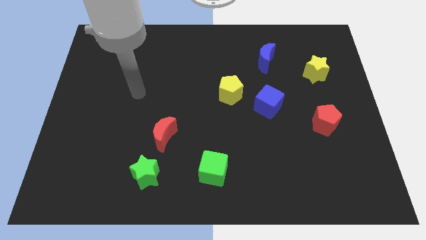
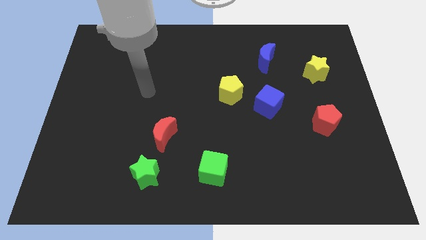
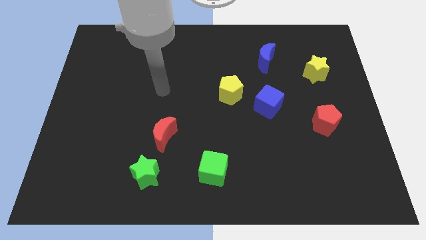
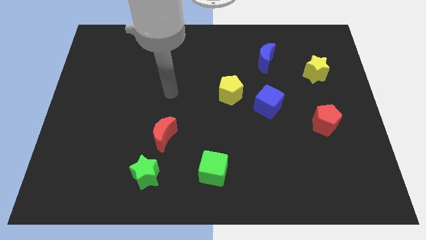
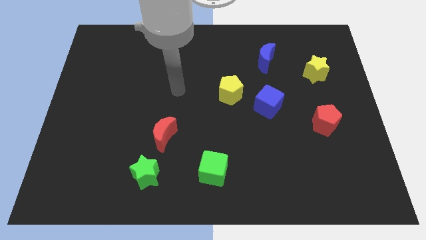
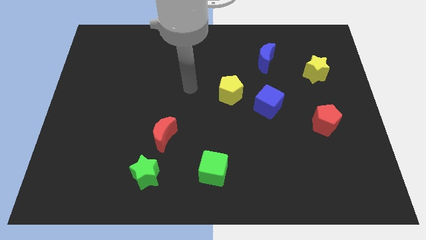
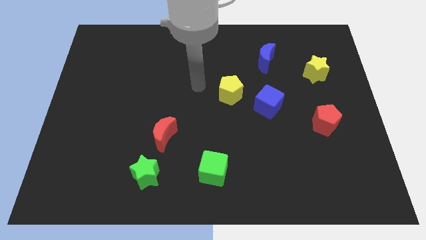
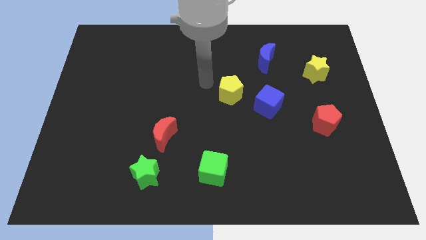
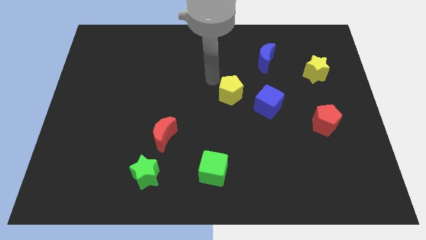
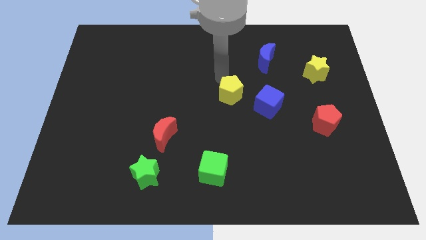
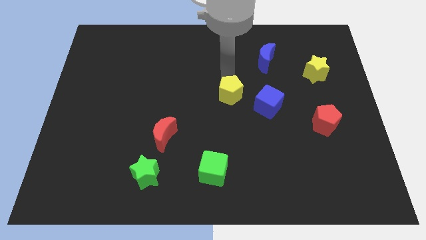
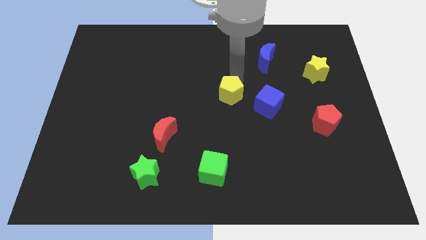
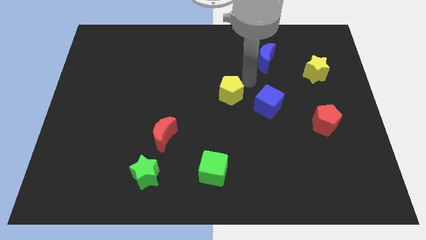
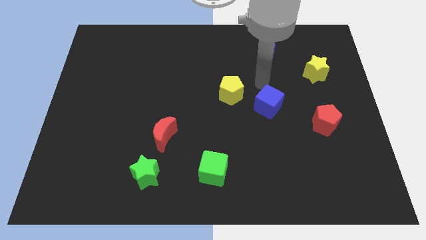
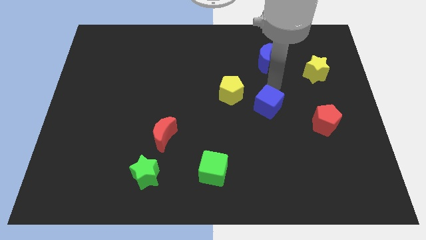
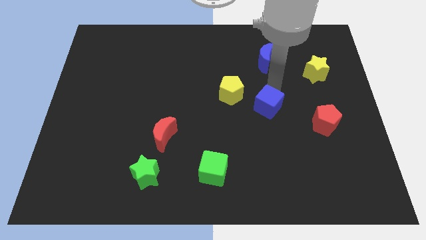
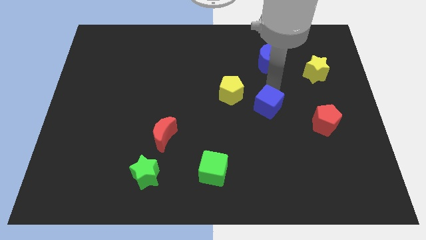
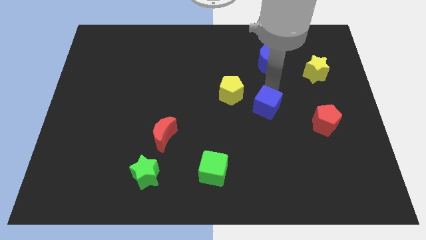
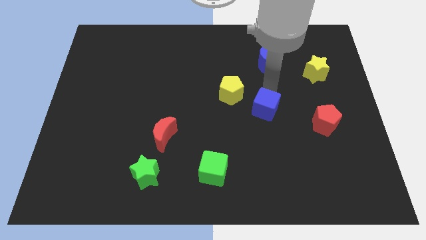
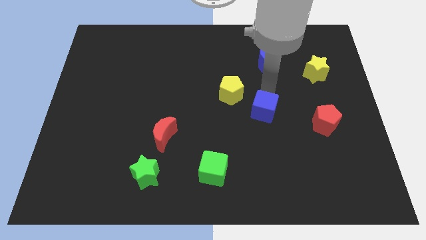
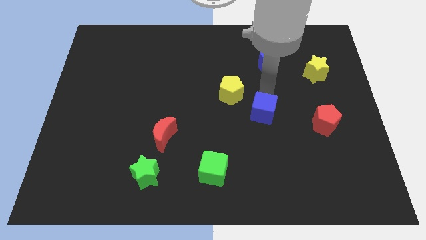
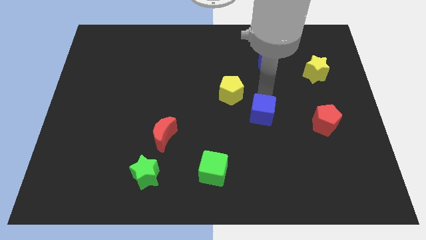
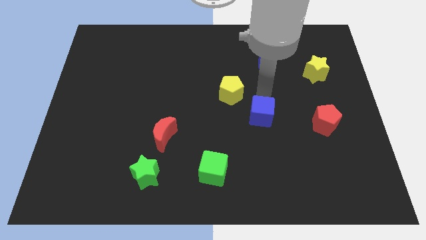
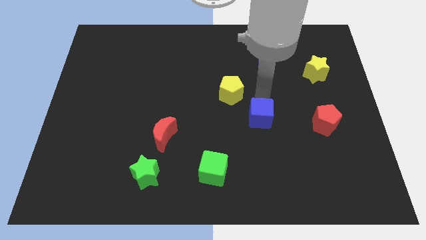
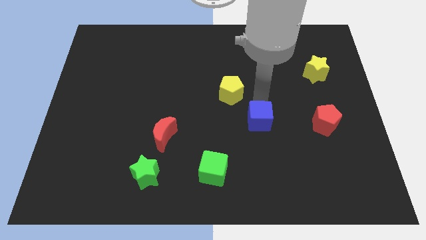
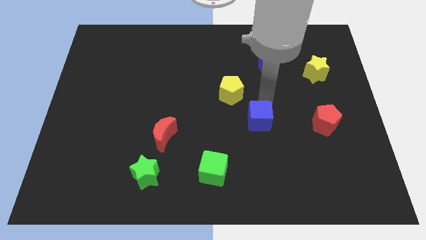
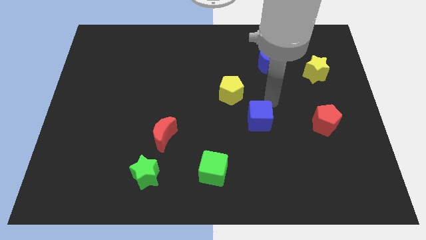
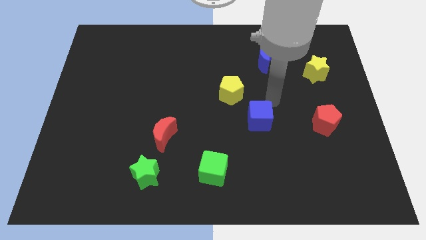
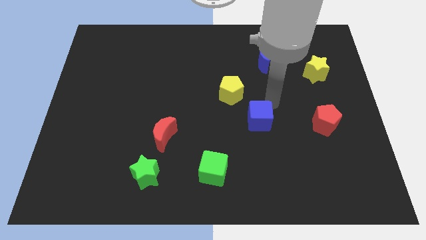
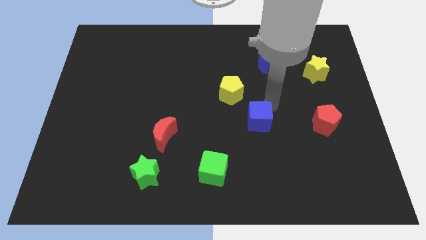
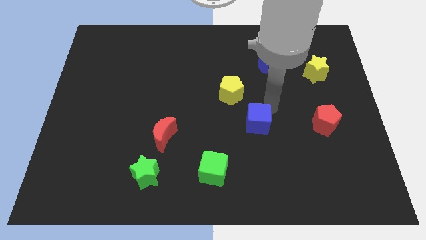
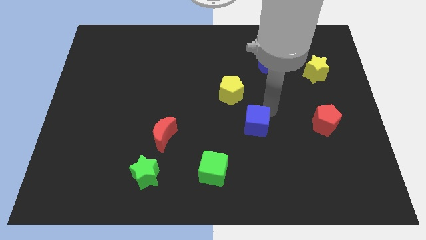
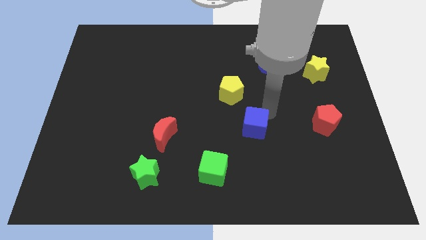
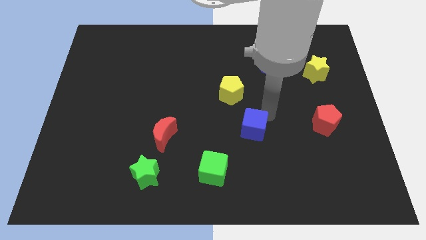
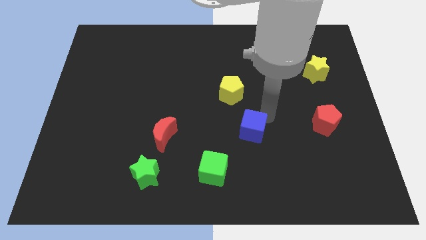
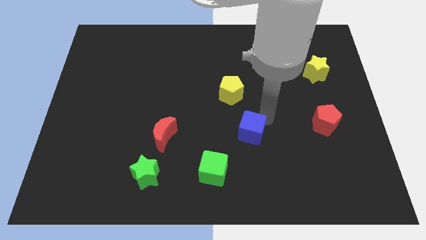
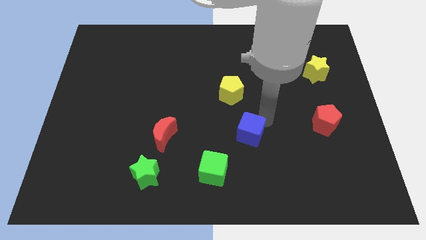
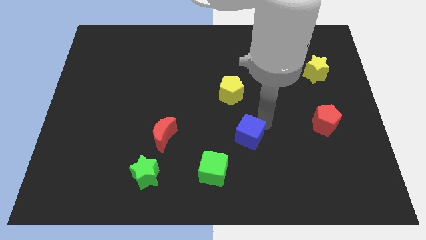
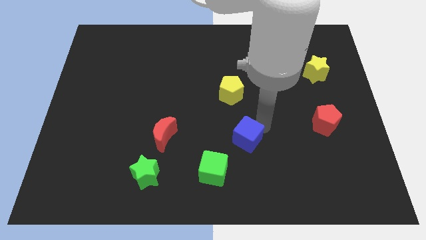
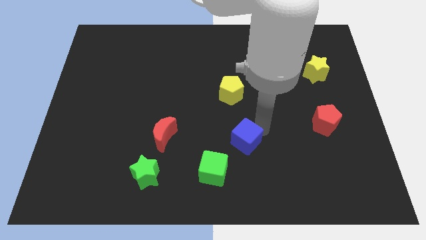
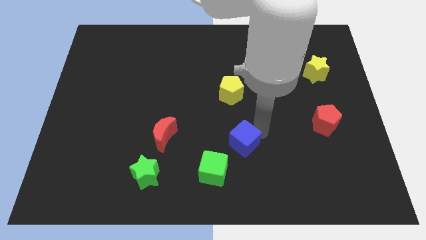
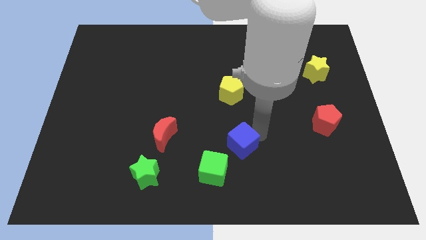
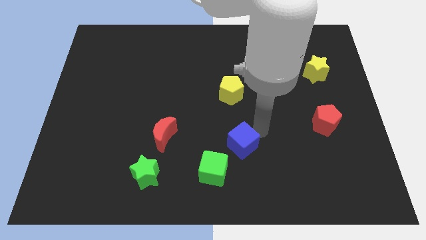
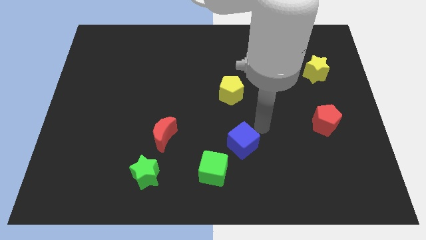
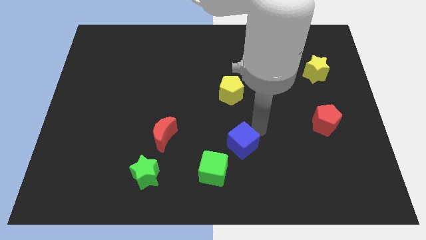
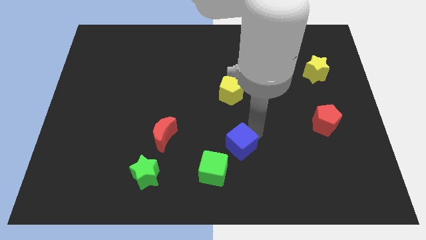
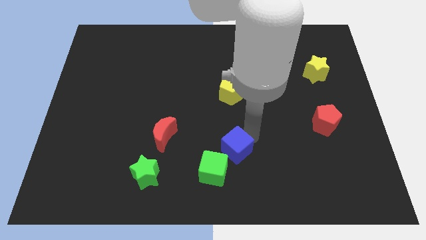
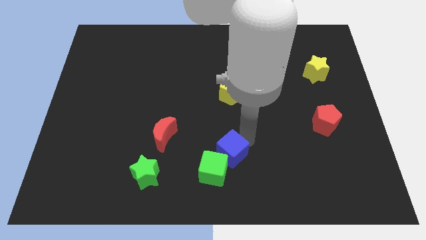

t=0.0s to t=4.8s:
push the blue cube to the green cube

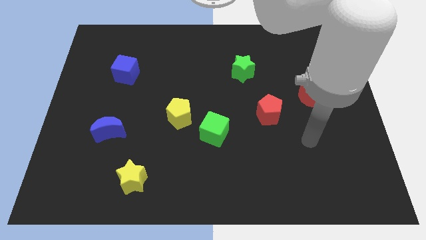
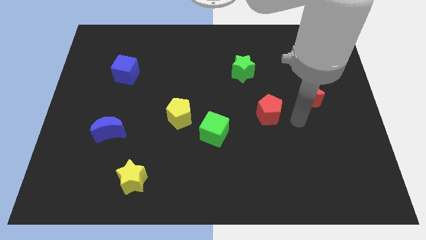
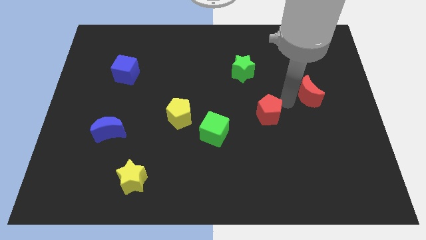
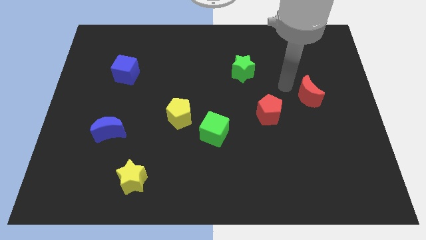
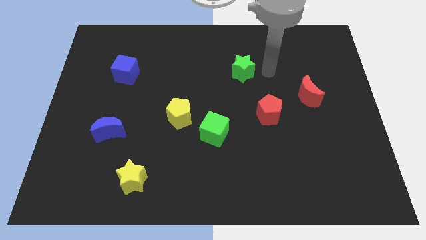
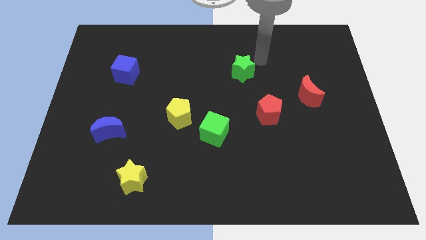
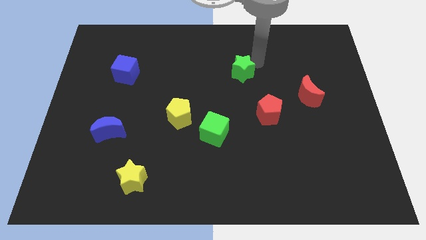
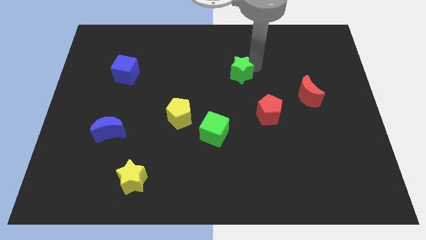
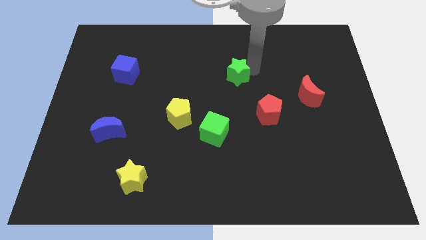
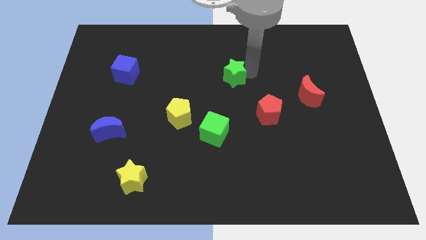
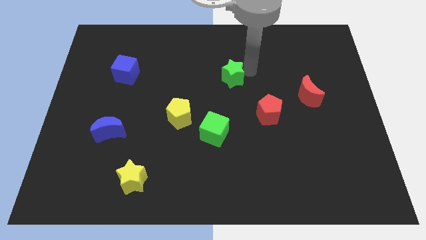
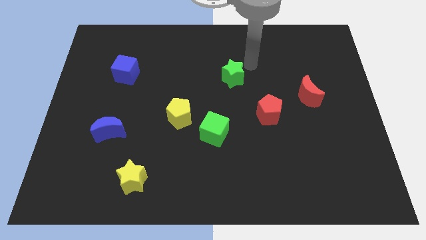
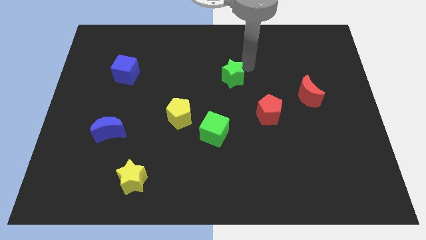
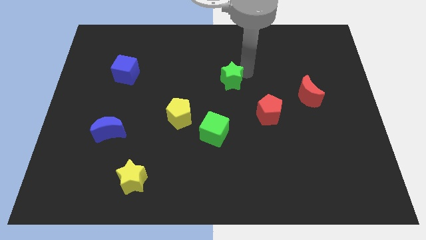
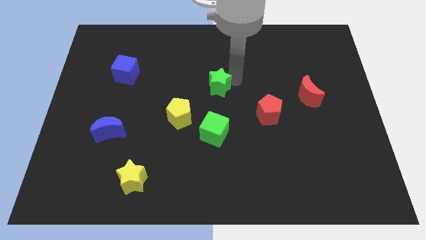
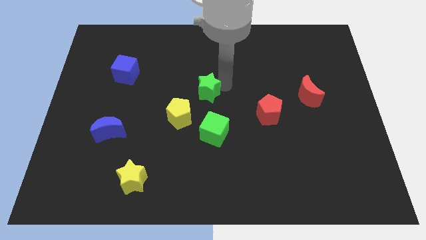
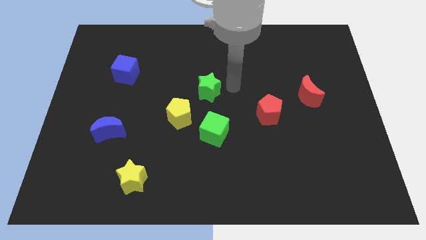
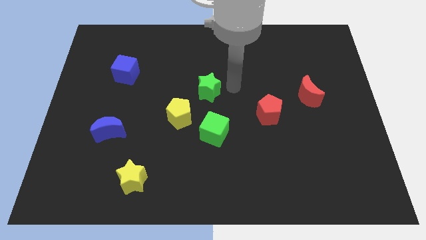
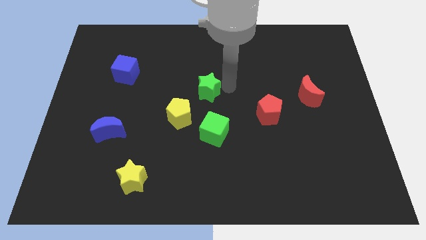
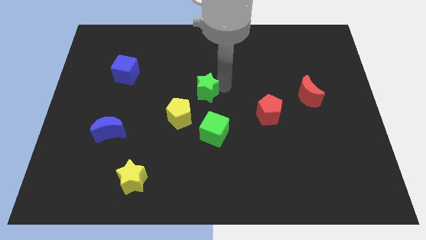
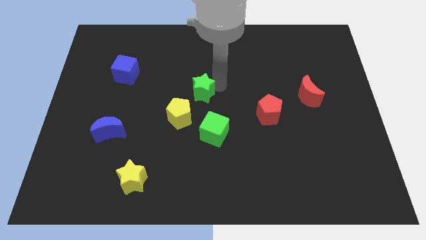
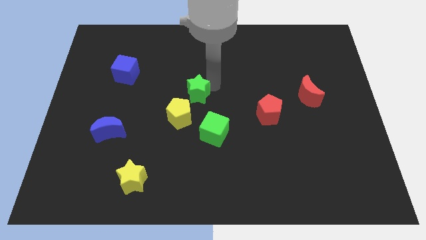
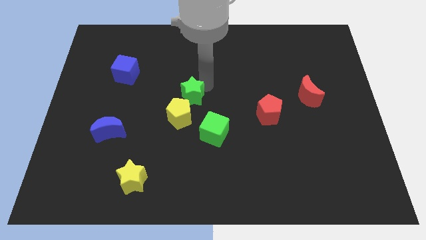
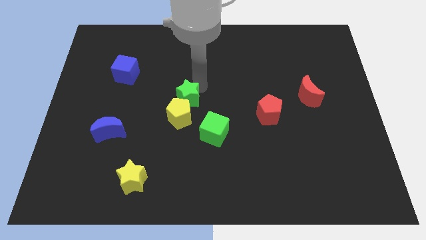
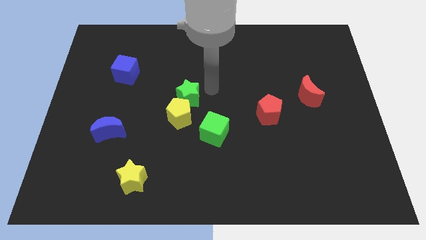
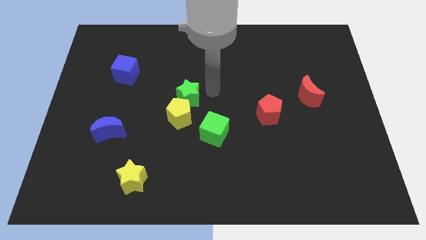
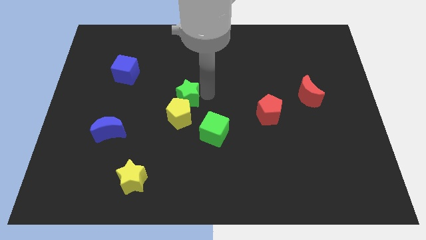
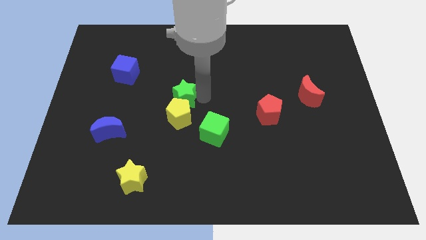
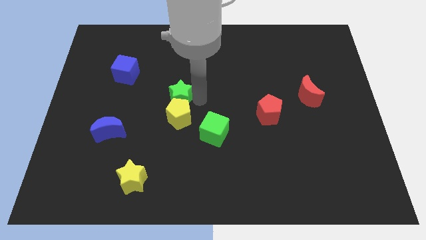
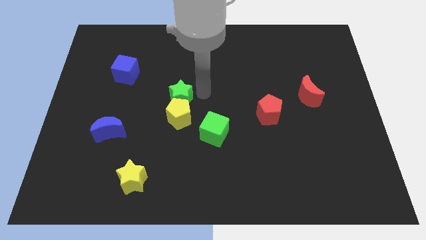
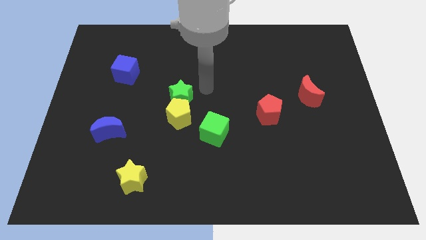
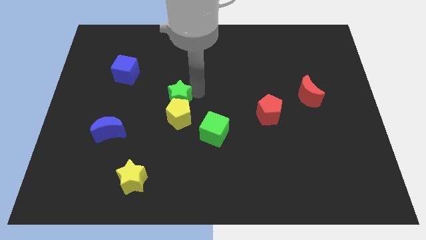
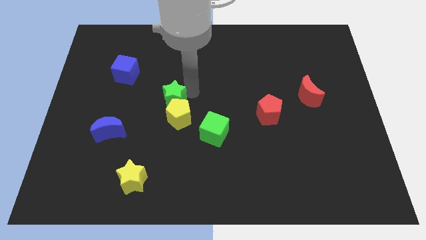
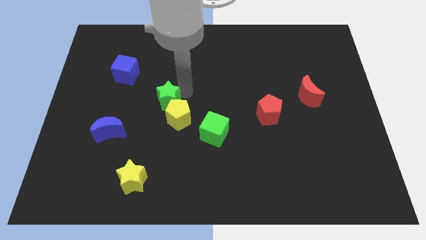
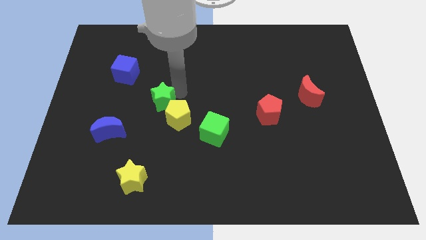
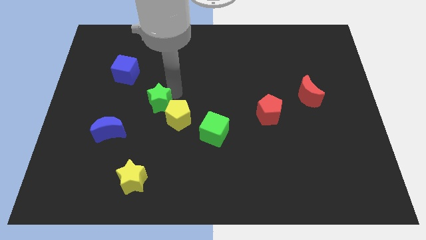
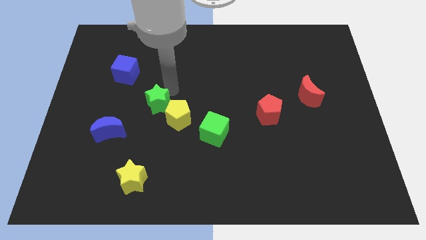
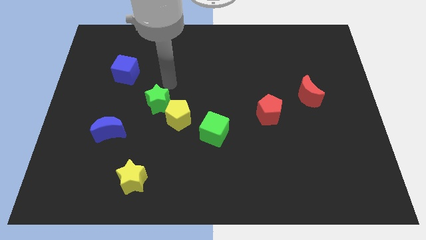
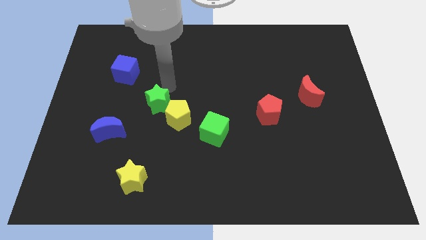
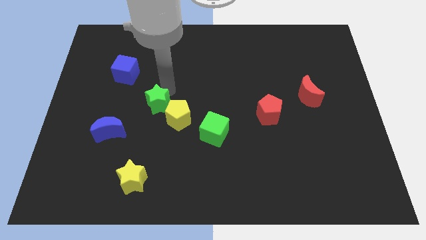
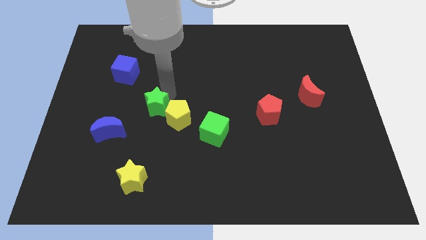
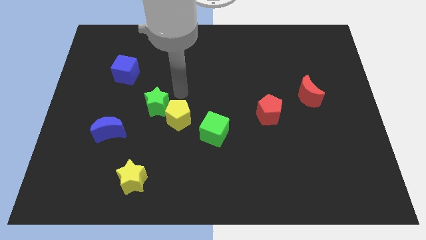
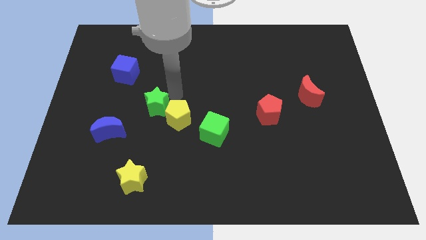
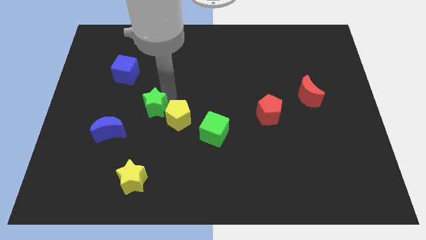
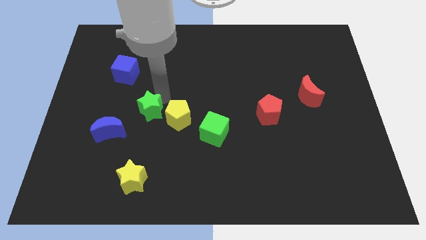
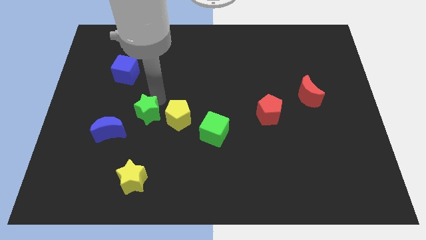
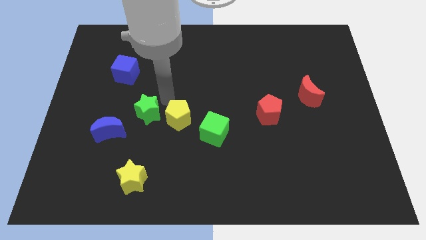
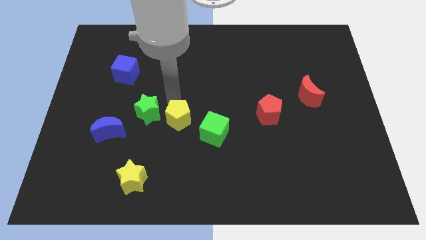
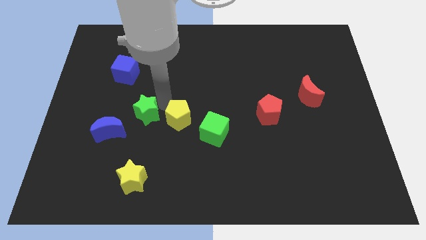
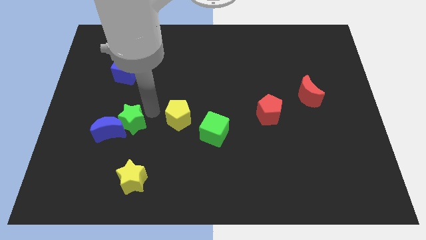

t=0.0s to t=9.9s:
move the green star to the blue moon
